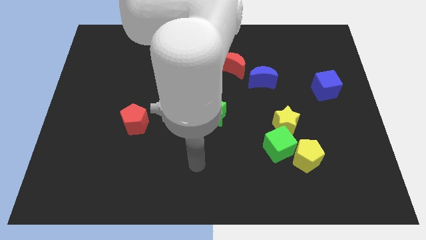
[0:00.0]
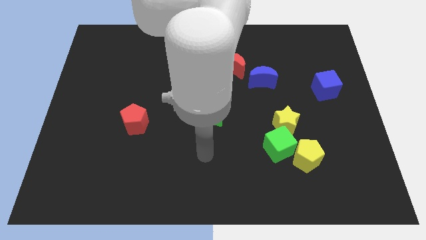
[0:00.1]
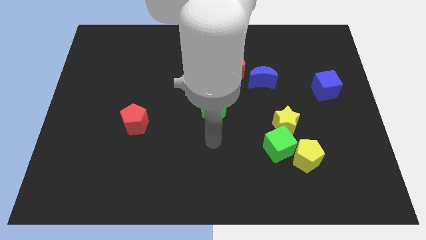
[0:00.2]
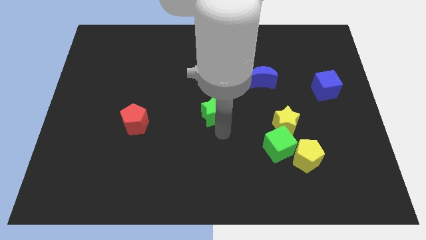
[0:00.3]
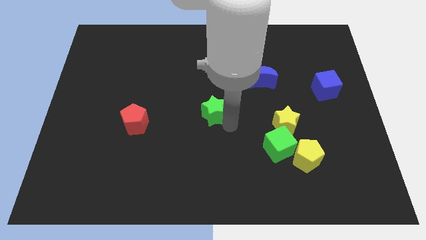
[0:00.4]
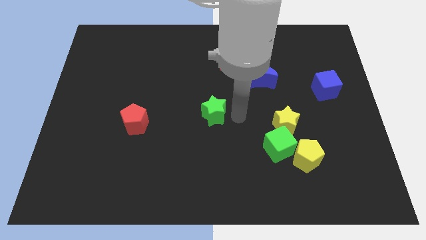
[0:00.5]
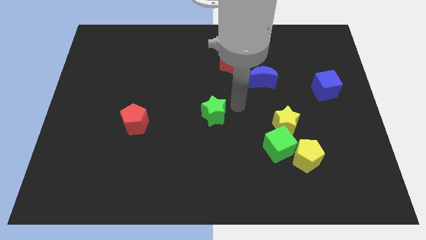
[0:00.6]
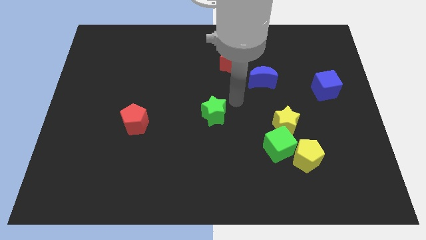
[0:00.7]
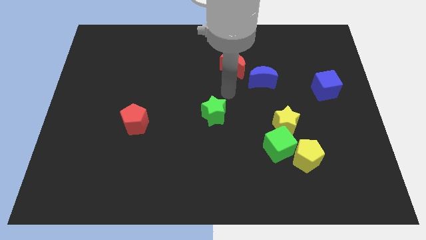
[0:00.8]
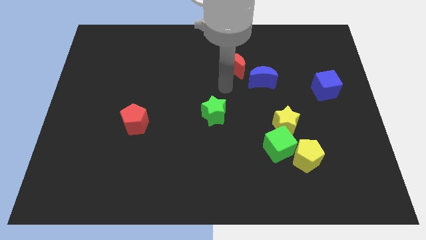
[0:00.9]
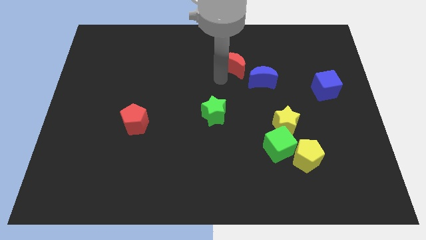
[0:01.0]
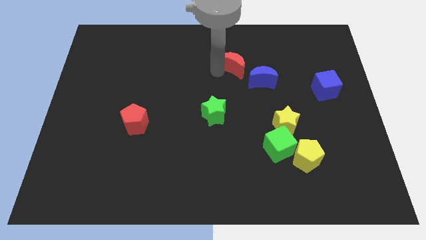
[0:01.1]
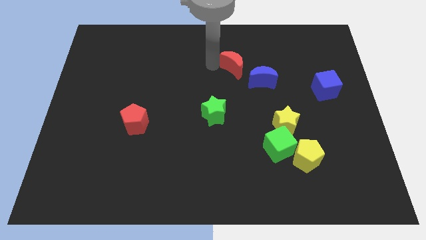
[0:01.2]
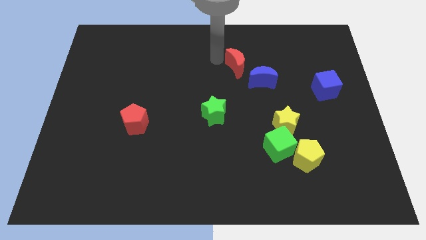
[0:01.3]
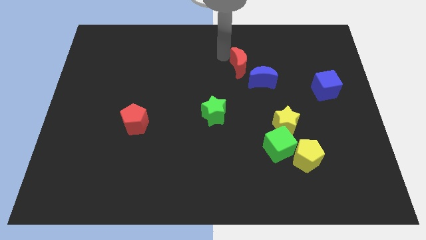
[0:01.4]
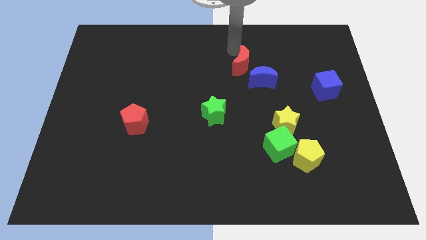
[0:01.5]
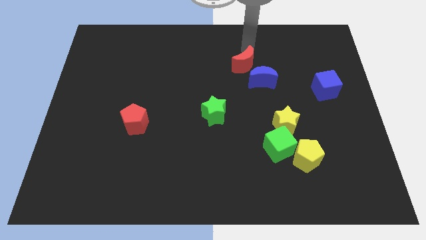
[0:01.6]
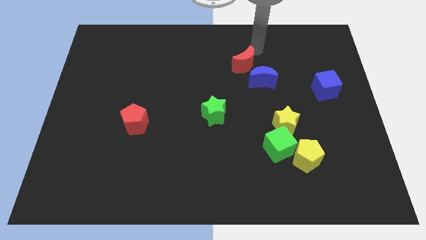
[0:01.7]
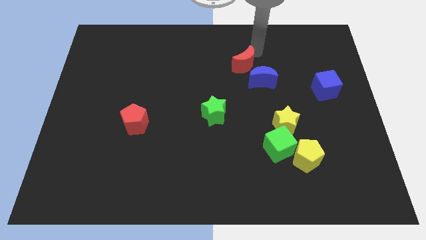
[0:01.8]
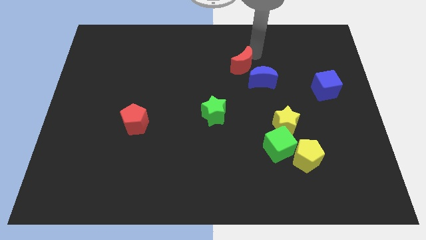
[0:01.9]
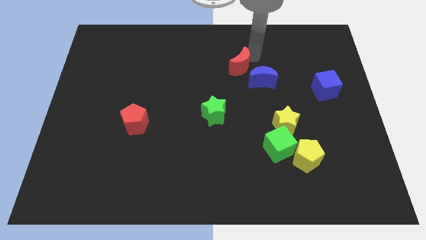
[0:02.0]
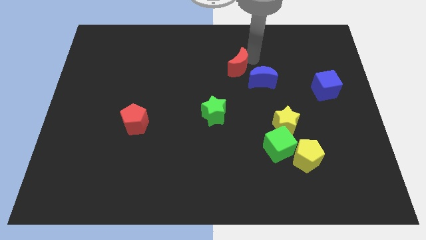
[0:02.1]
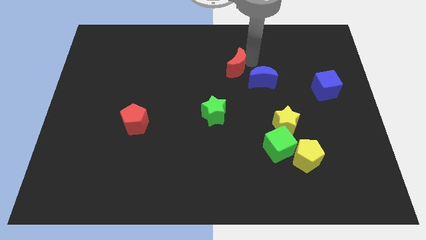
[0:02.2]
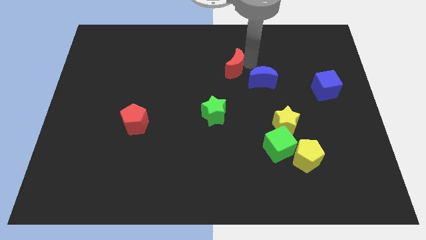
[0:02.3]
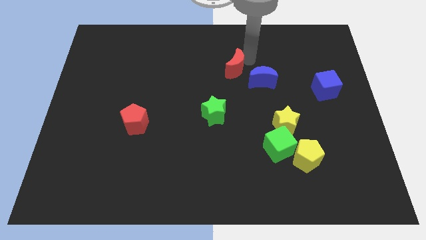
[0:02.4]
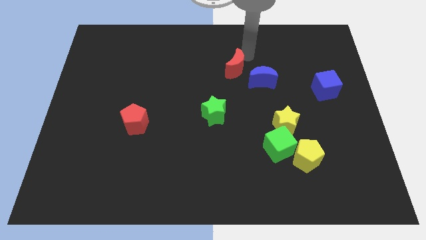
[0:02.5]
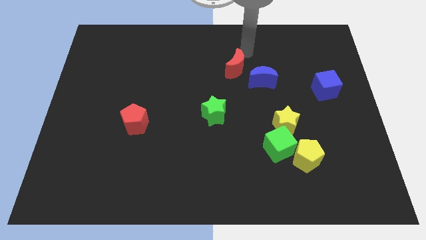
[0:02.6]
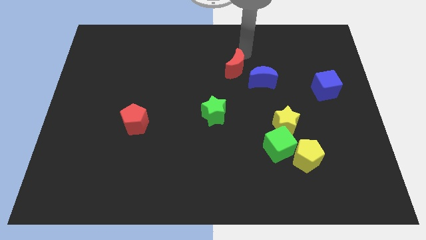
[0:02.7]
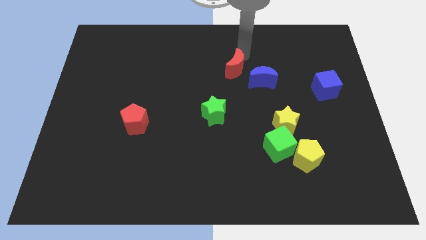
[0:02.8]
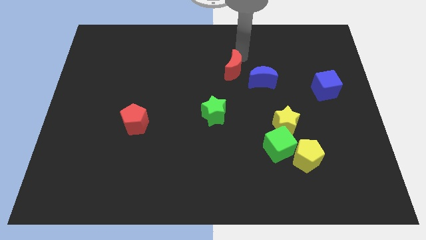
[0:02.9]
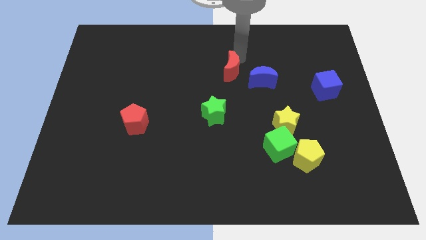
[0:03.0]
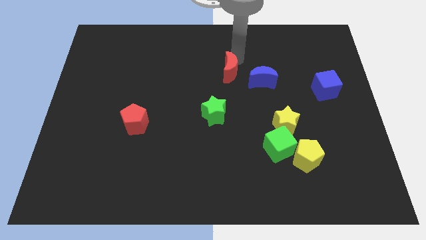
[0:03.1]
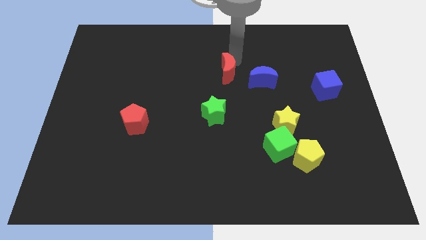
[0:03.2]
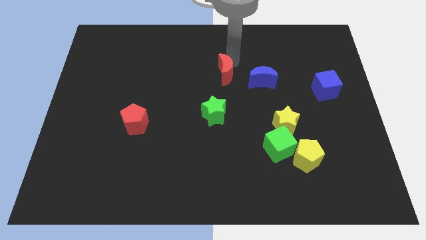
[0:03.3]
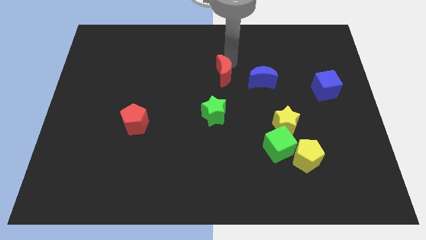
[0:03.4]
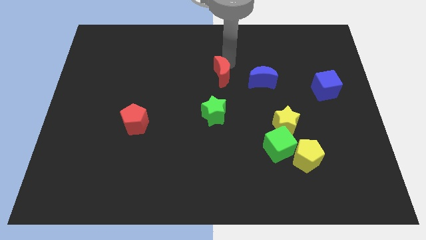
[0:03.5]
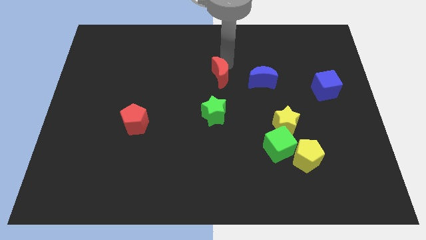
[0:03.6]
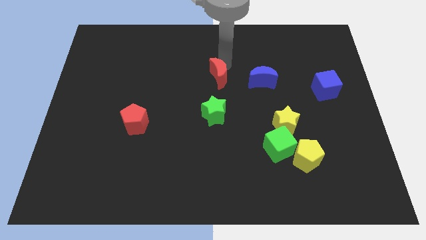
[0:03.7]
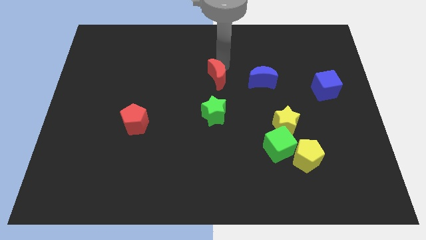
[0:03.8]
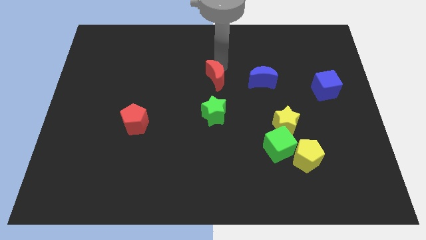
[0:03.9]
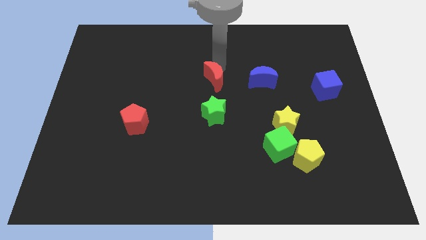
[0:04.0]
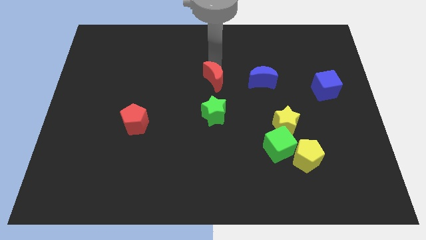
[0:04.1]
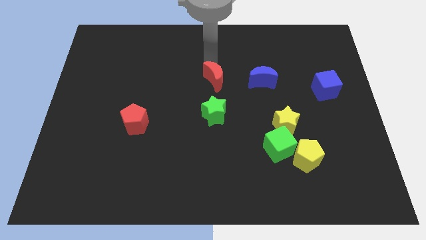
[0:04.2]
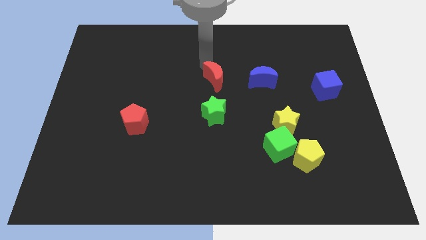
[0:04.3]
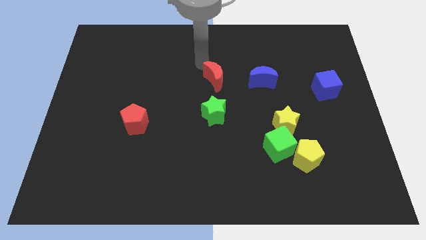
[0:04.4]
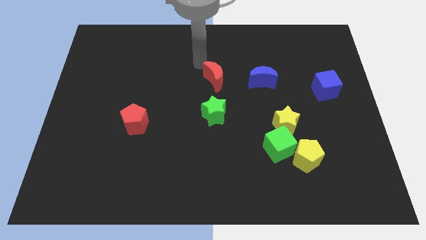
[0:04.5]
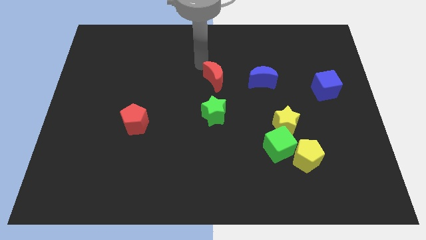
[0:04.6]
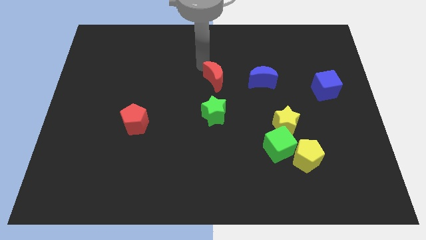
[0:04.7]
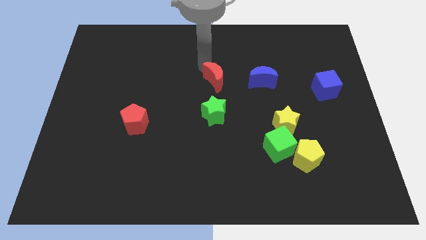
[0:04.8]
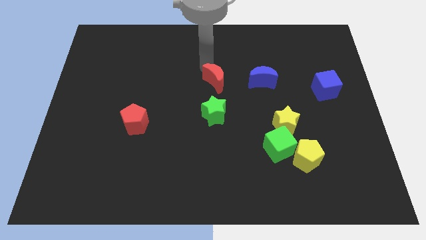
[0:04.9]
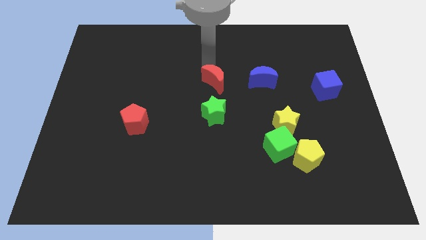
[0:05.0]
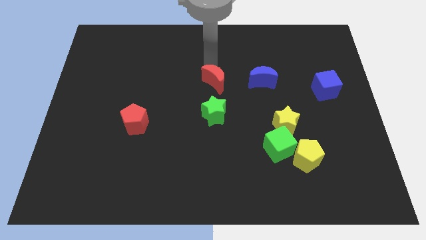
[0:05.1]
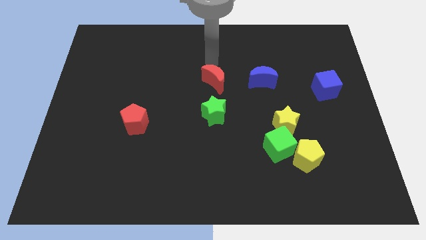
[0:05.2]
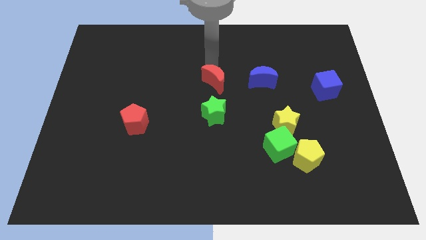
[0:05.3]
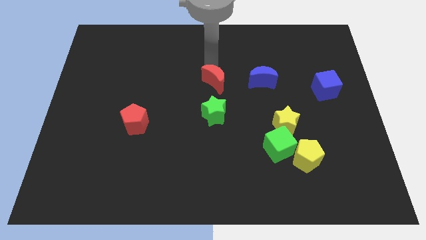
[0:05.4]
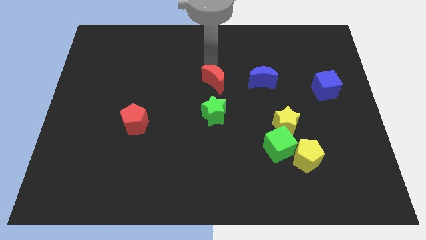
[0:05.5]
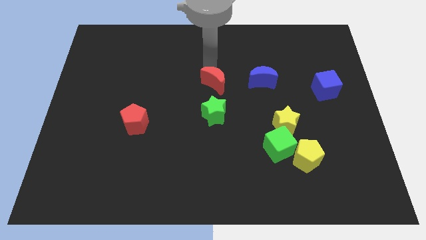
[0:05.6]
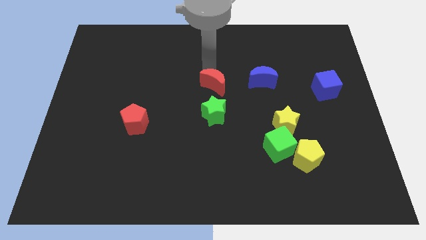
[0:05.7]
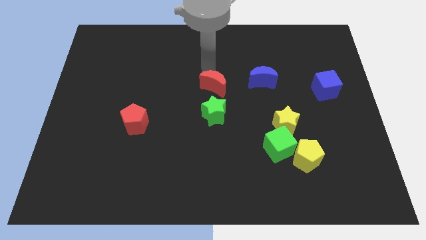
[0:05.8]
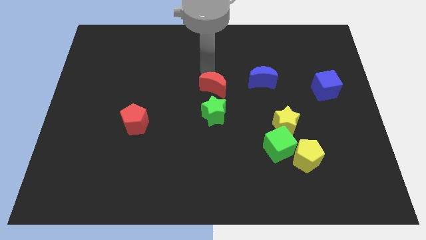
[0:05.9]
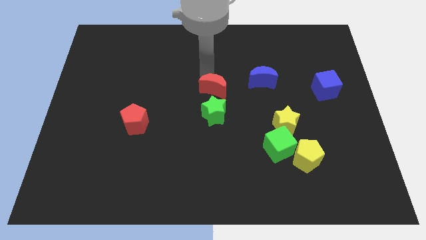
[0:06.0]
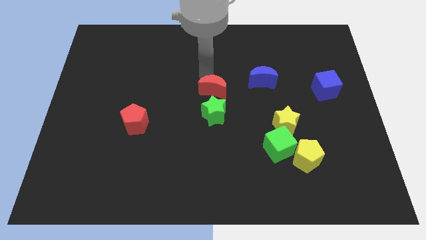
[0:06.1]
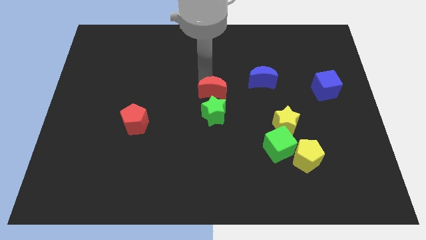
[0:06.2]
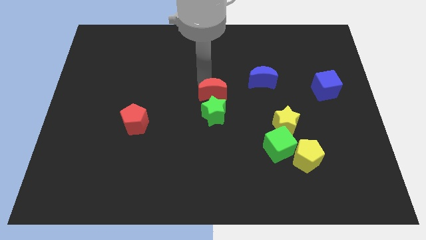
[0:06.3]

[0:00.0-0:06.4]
slide the red moon next to the green star

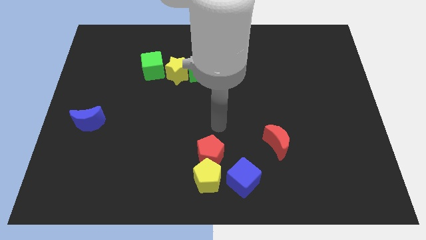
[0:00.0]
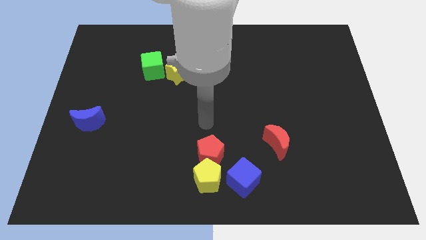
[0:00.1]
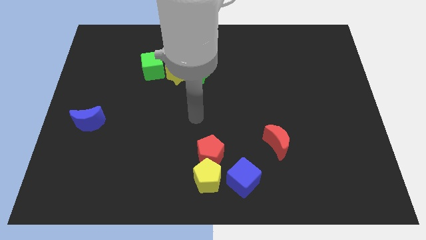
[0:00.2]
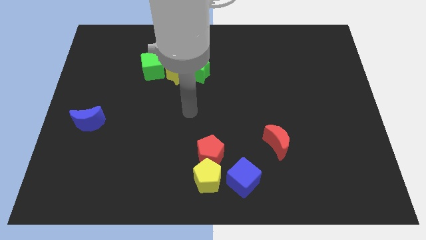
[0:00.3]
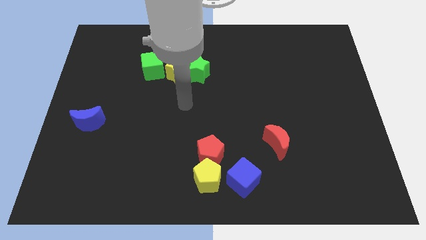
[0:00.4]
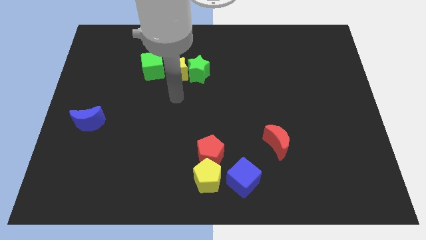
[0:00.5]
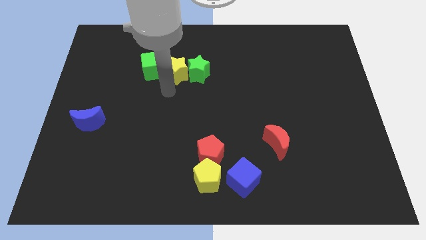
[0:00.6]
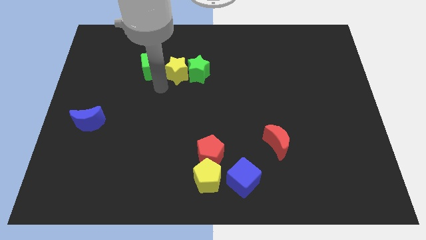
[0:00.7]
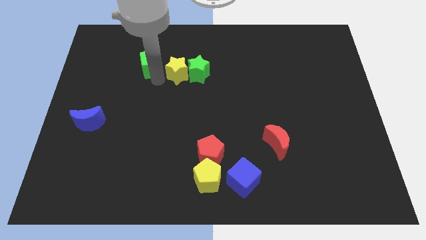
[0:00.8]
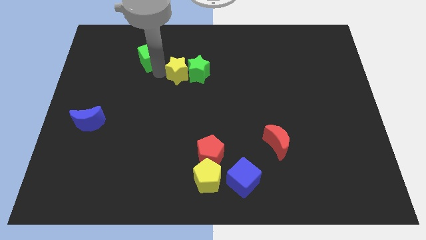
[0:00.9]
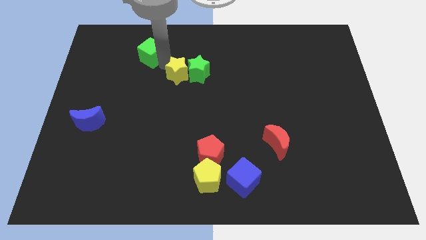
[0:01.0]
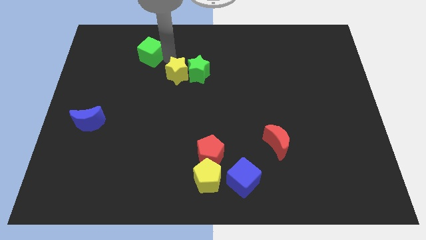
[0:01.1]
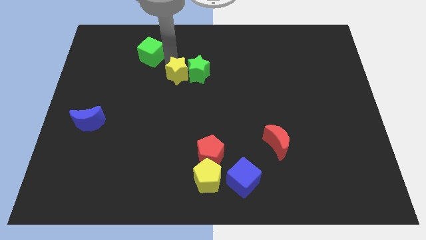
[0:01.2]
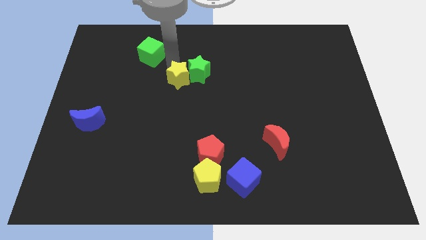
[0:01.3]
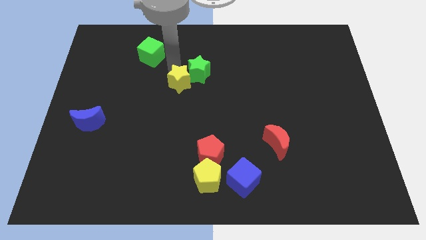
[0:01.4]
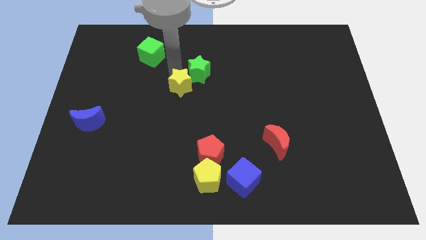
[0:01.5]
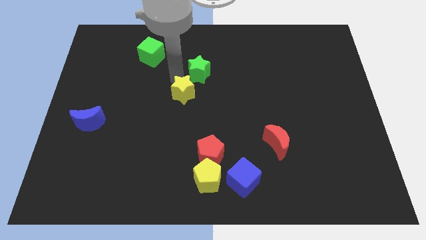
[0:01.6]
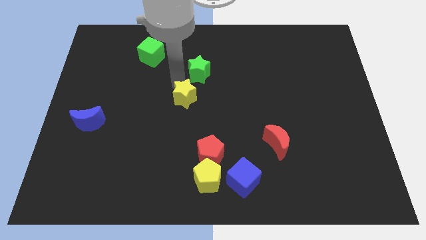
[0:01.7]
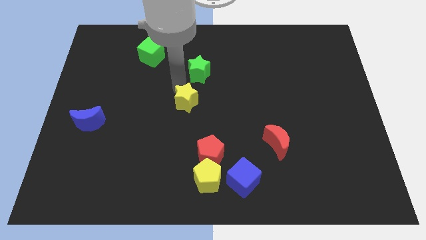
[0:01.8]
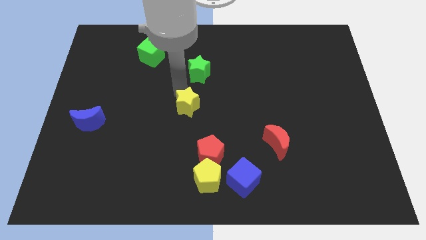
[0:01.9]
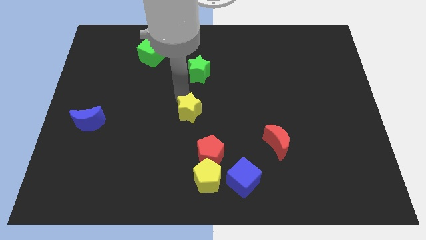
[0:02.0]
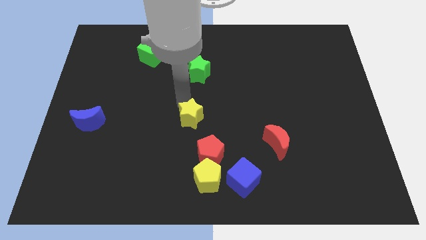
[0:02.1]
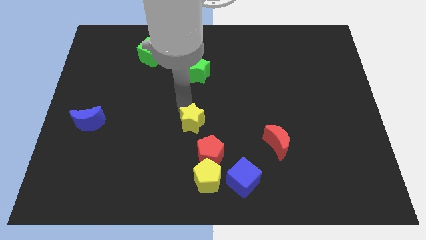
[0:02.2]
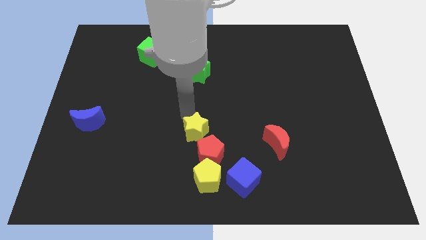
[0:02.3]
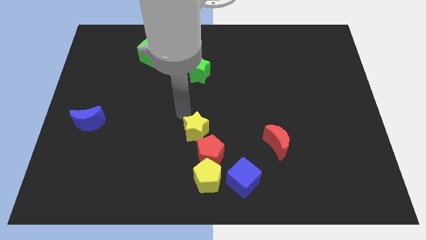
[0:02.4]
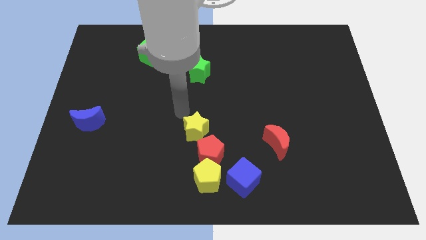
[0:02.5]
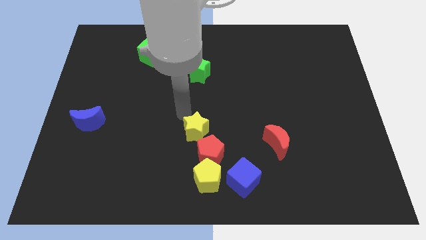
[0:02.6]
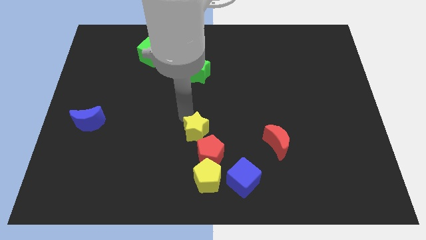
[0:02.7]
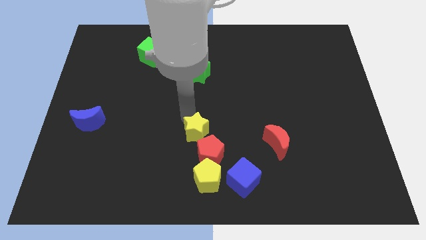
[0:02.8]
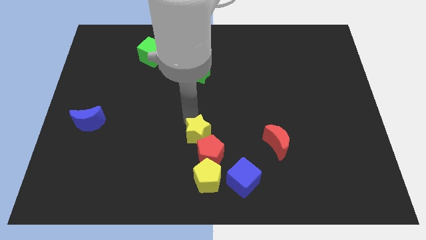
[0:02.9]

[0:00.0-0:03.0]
put the yellow star towards the red pentagon
